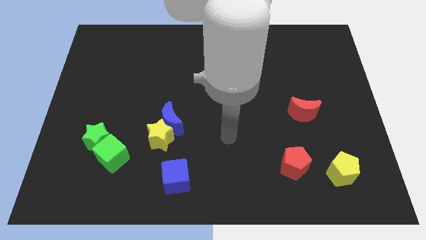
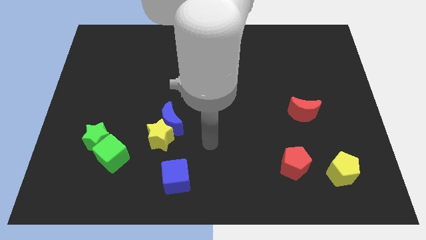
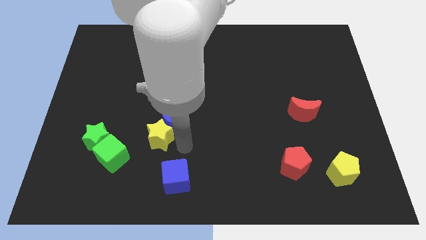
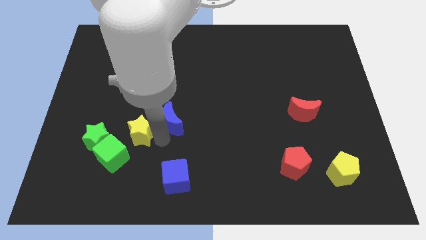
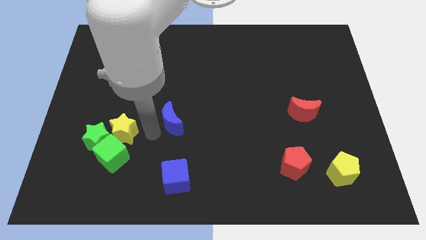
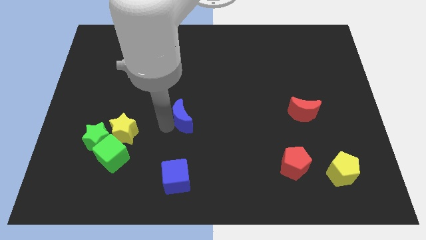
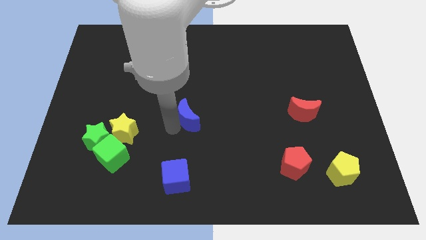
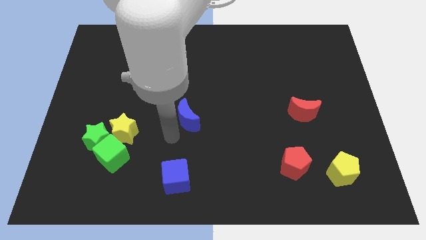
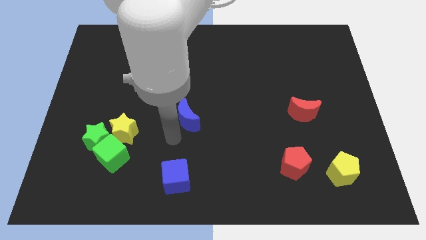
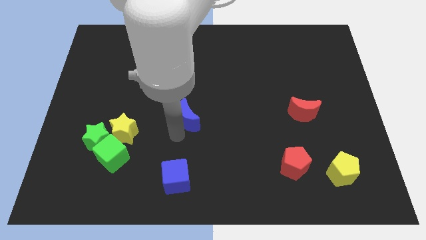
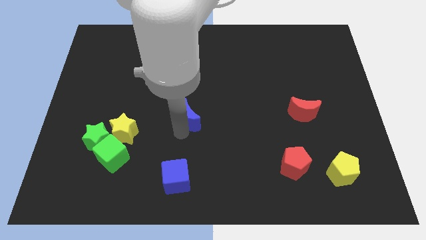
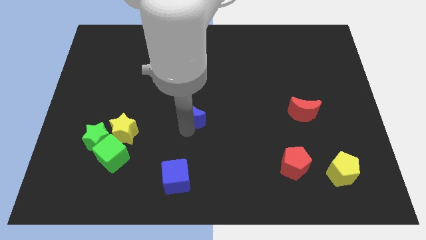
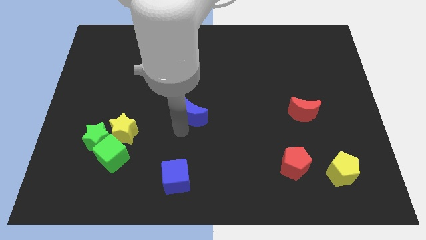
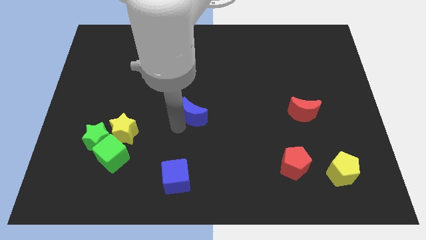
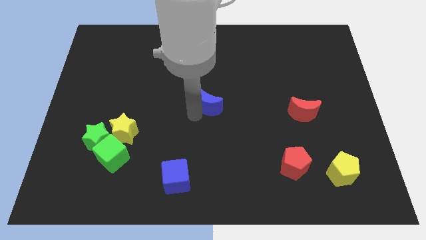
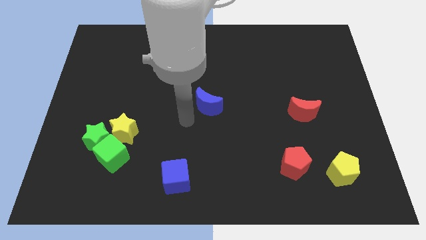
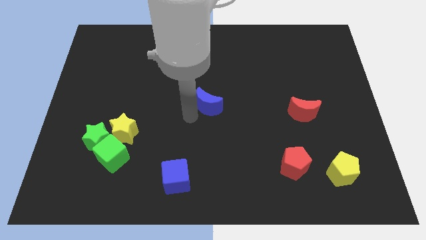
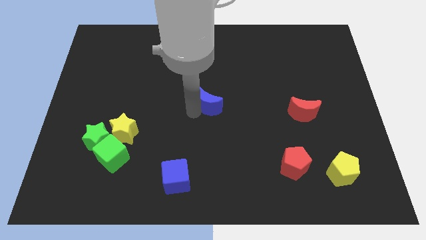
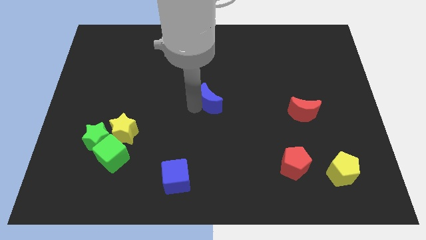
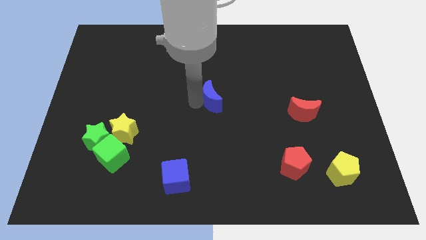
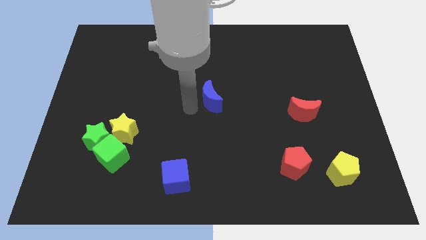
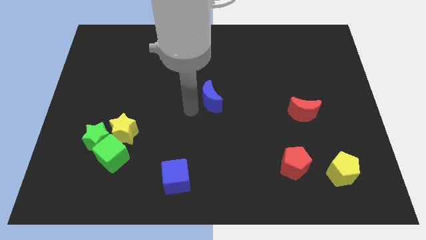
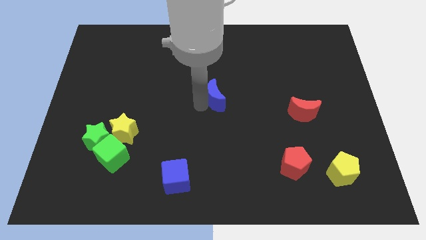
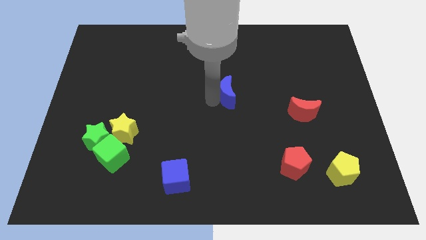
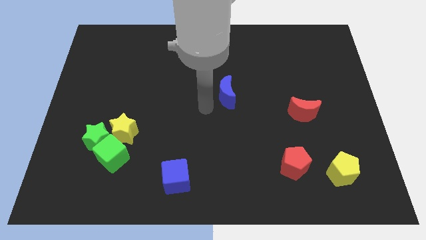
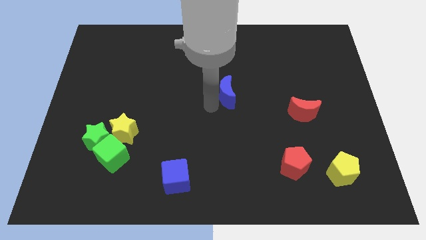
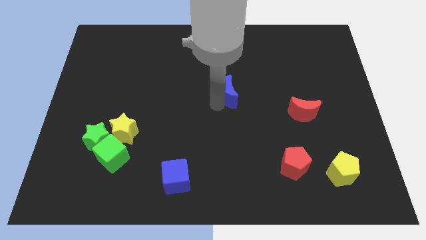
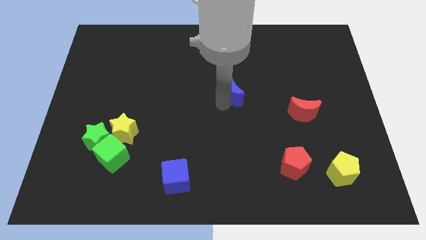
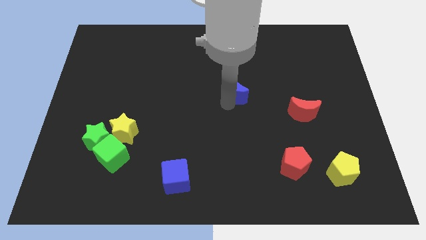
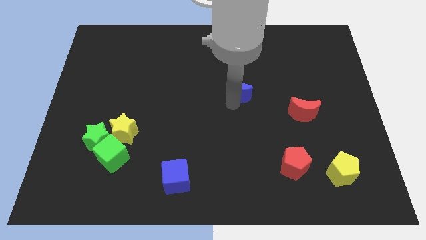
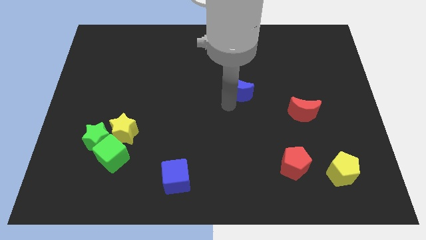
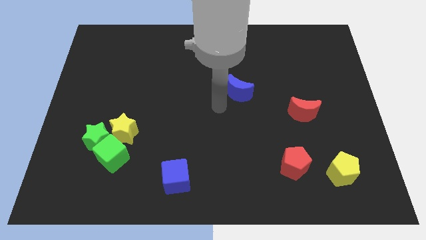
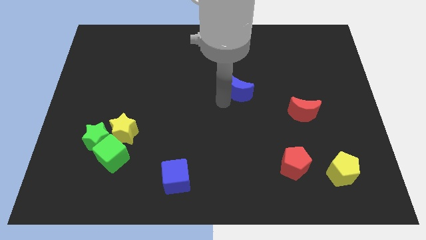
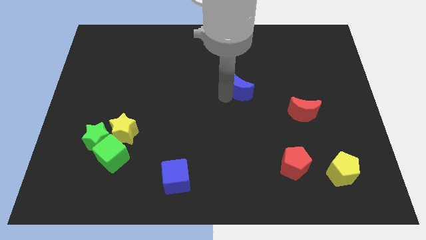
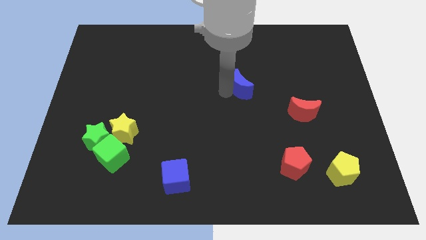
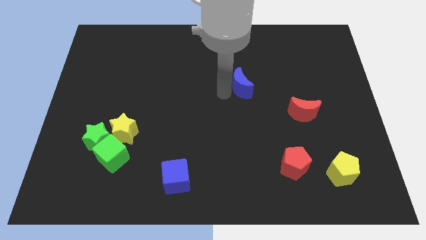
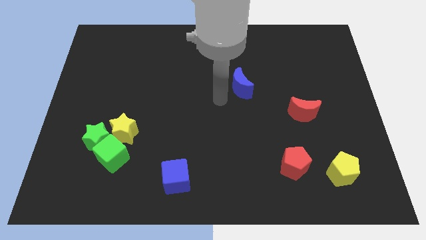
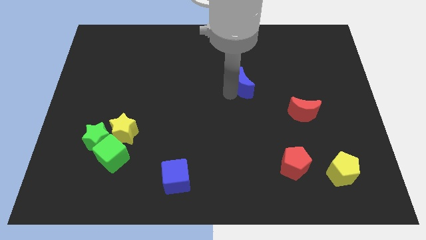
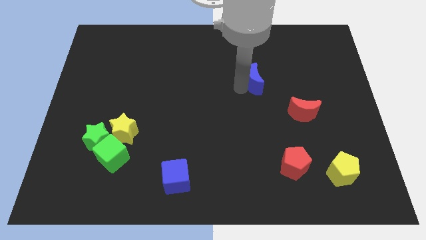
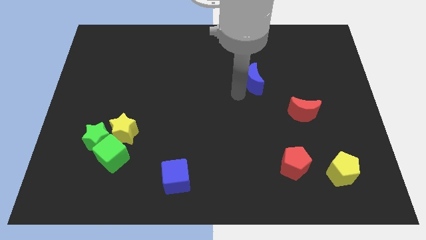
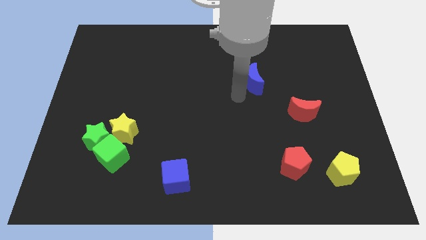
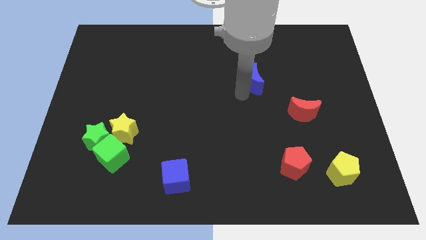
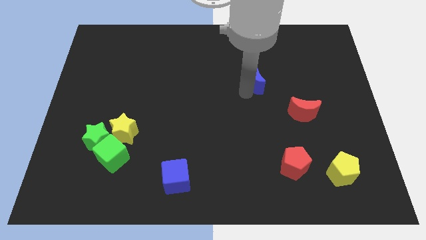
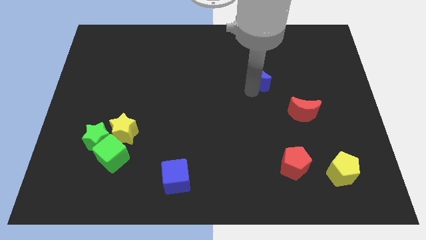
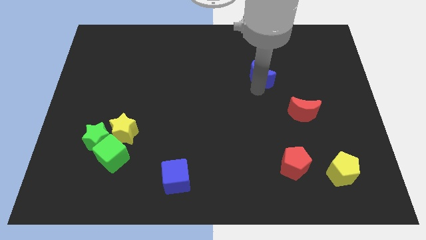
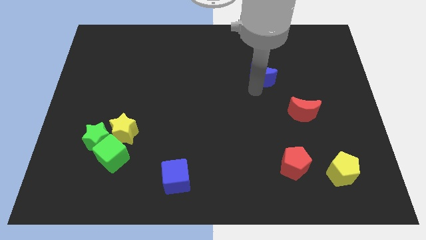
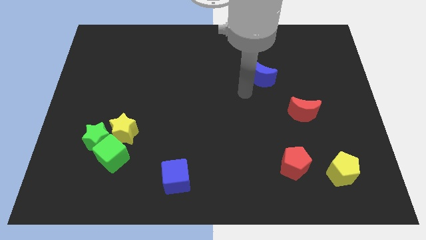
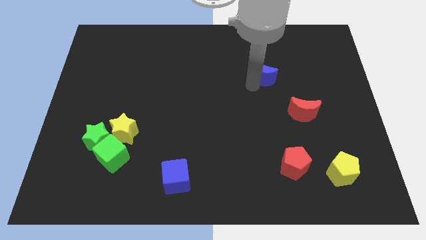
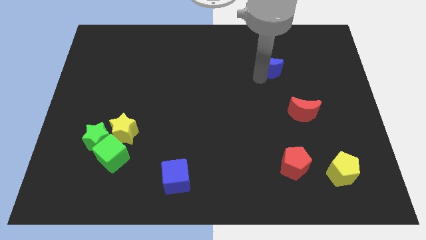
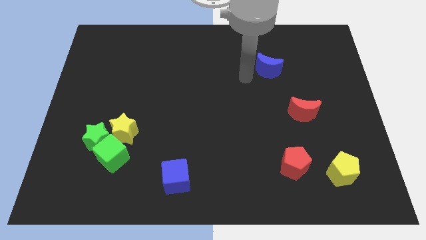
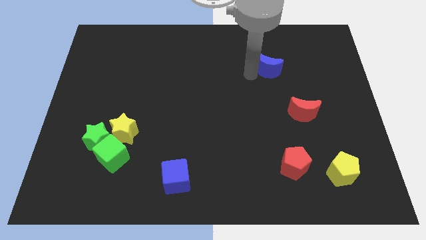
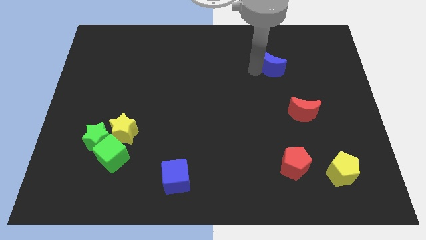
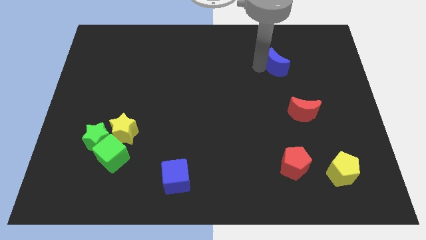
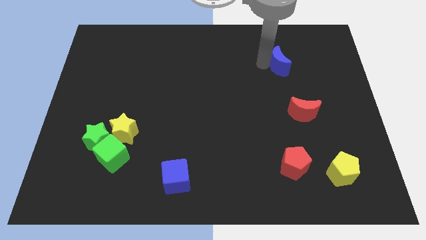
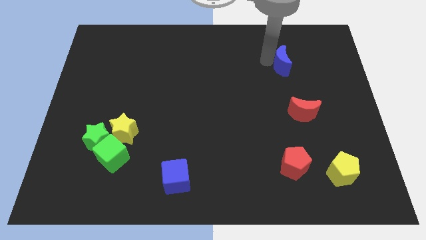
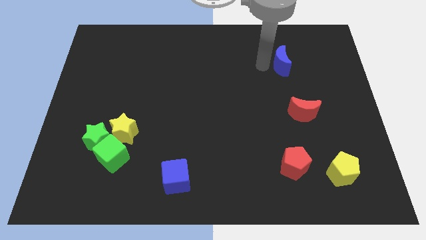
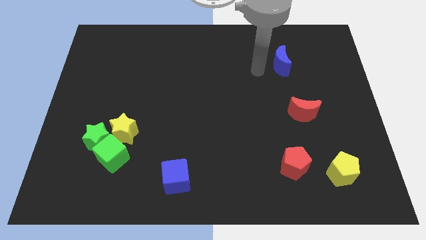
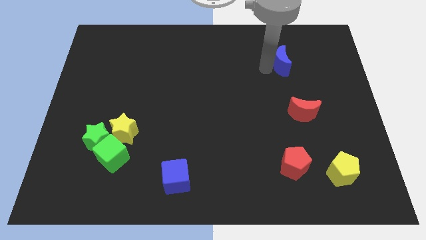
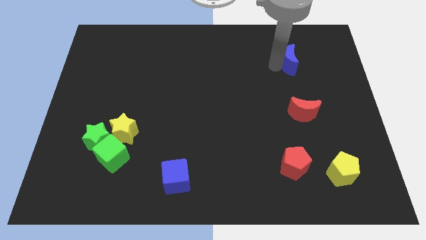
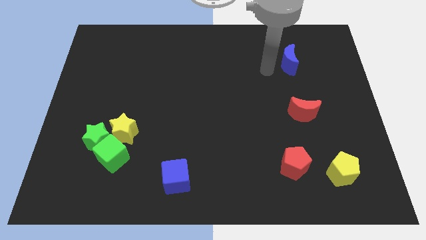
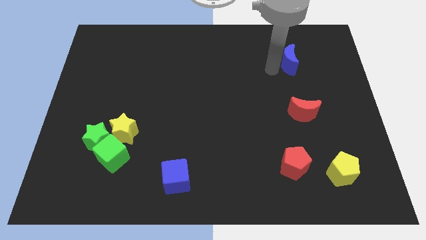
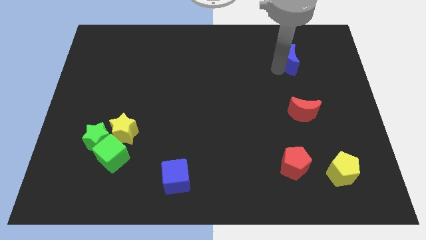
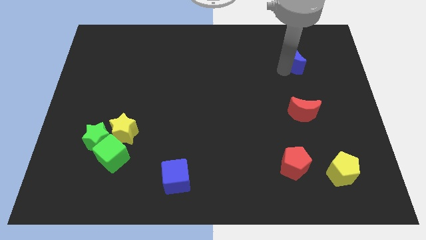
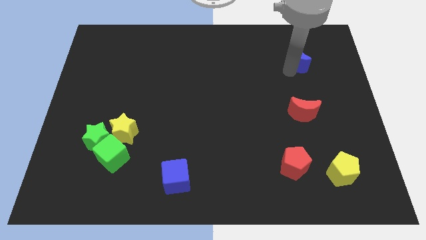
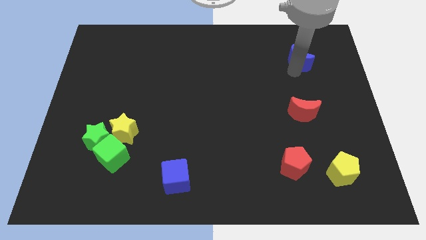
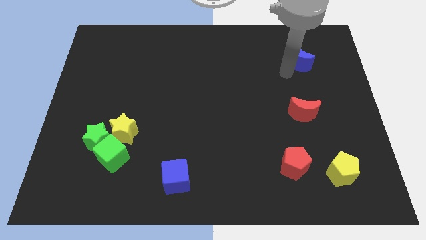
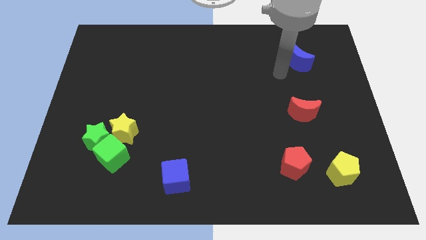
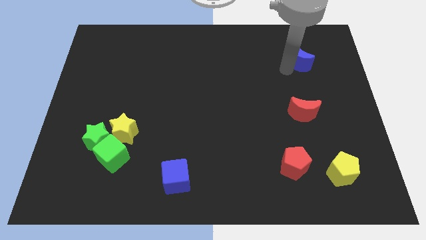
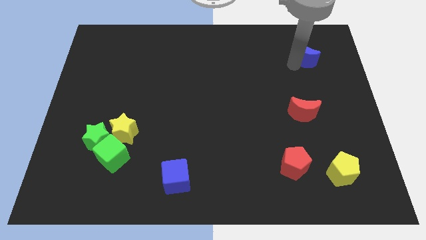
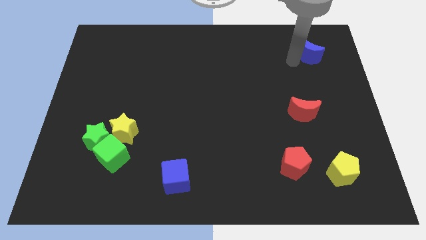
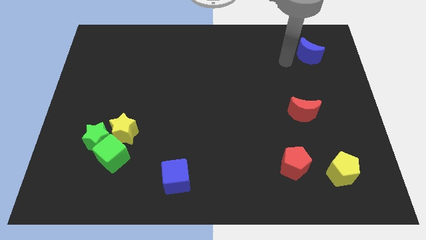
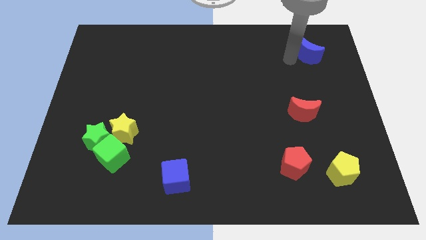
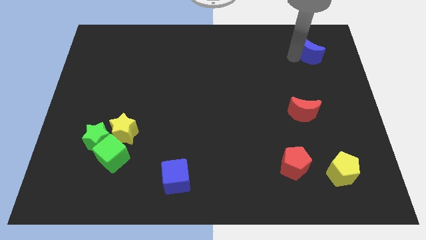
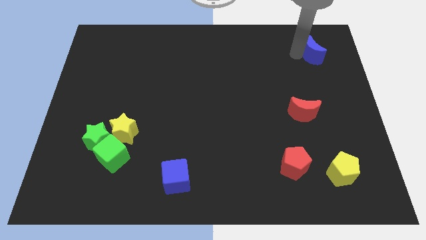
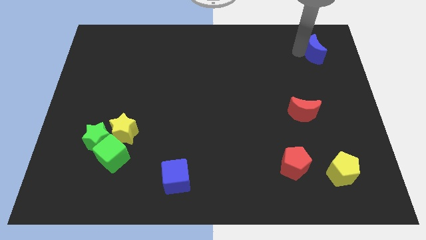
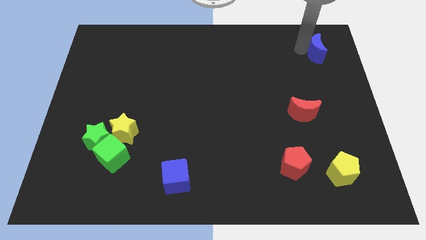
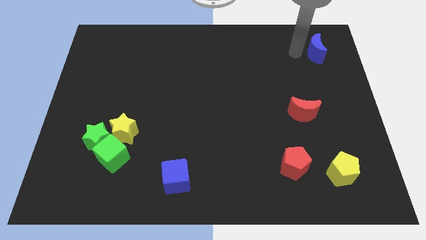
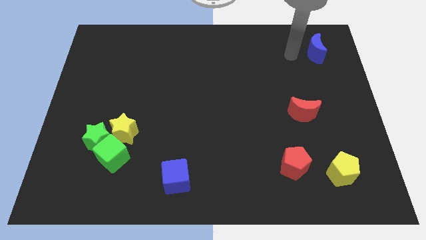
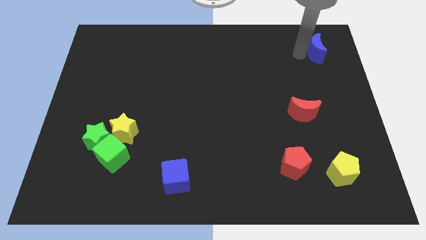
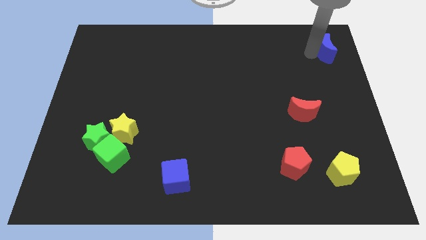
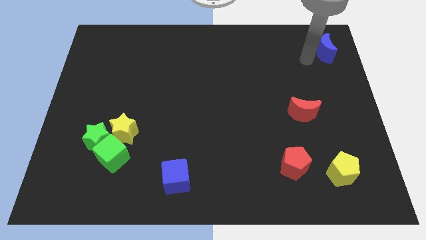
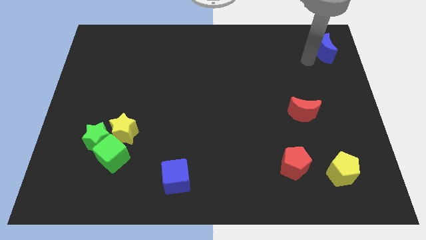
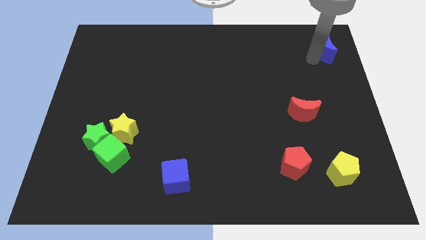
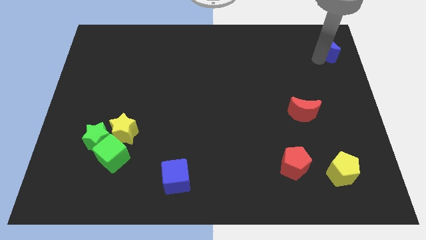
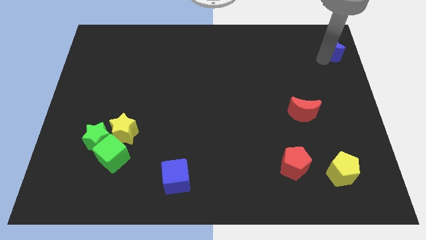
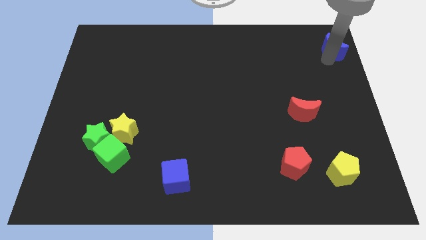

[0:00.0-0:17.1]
put the blue moon to the upper right corner
